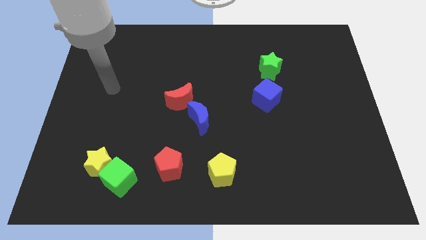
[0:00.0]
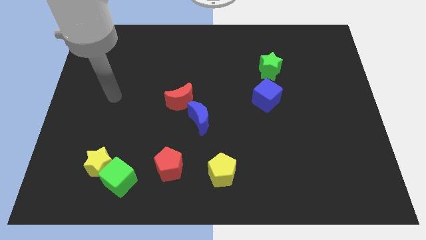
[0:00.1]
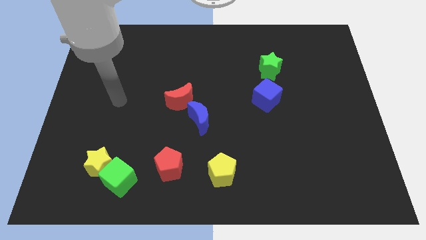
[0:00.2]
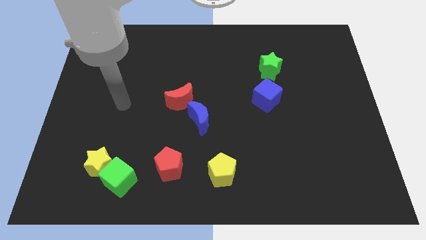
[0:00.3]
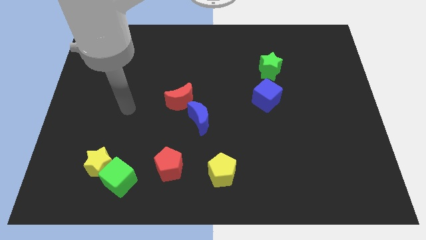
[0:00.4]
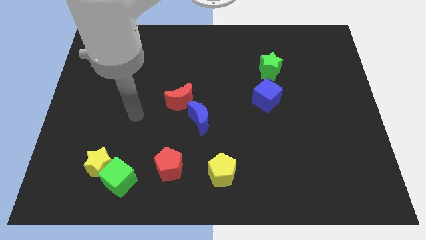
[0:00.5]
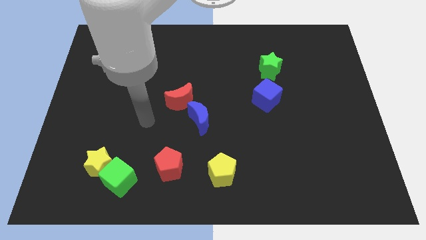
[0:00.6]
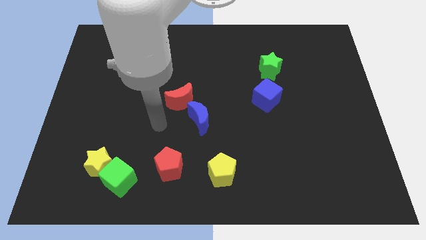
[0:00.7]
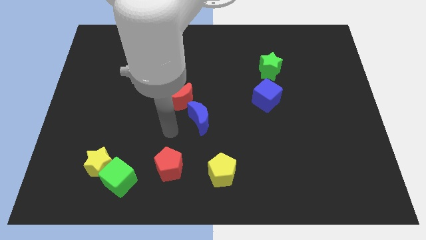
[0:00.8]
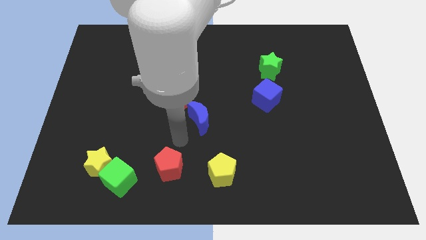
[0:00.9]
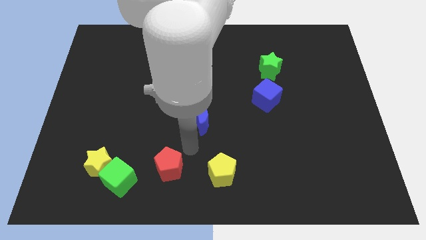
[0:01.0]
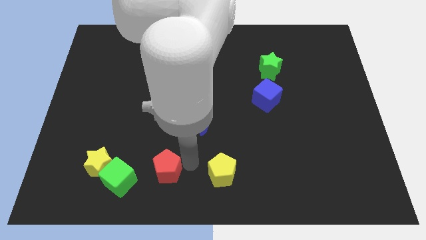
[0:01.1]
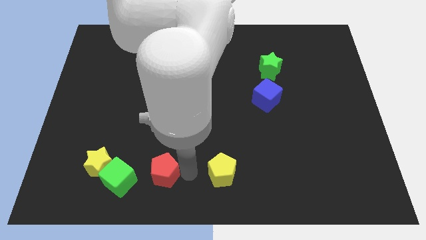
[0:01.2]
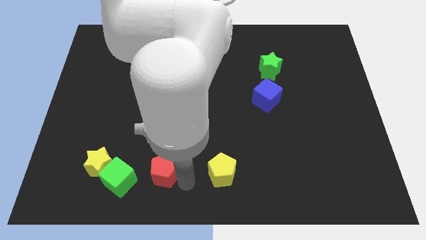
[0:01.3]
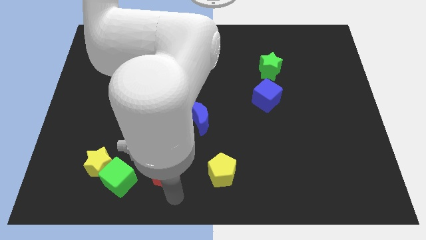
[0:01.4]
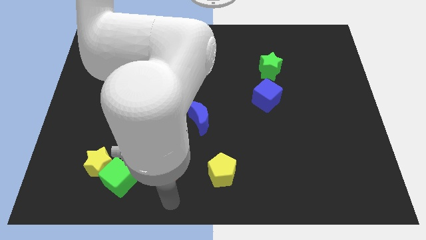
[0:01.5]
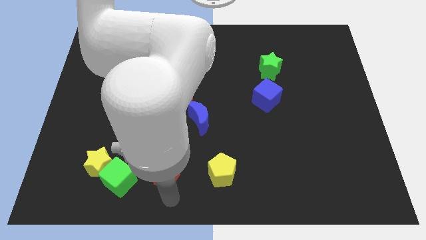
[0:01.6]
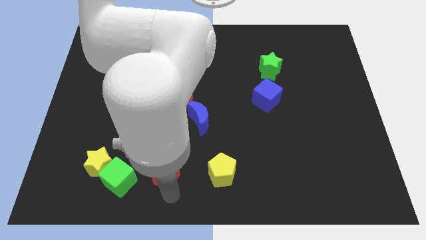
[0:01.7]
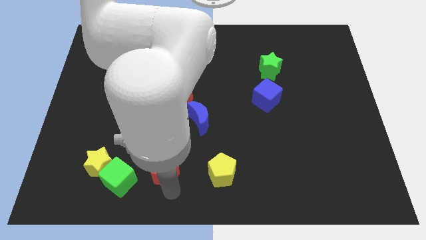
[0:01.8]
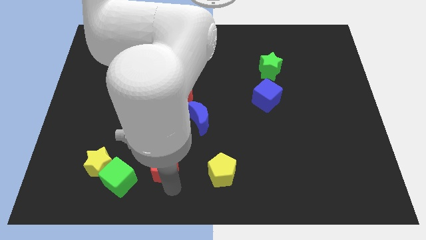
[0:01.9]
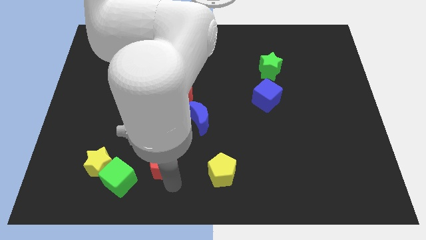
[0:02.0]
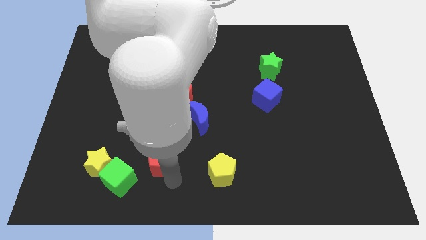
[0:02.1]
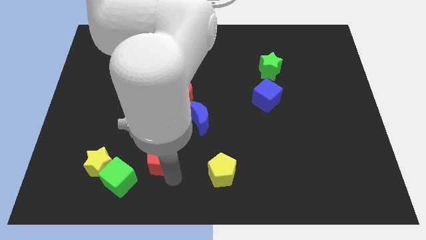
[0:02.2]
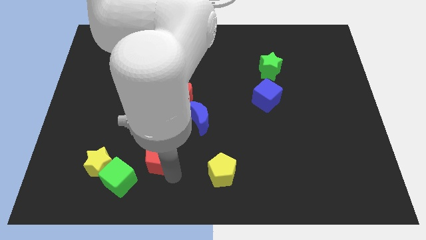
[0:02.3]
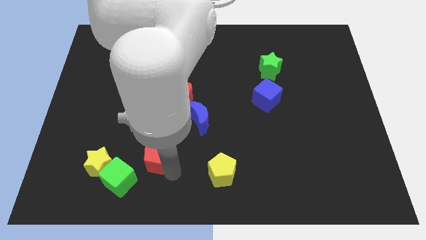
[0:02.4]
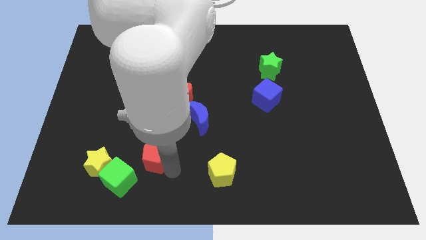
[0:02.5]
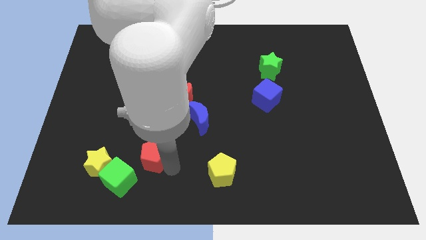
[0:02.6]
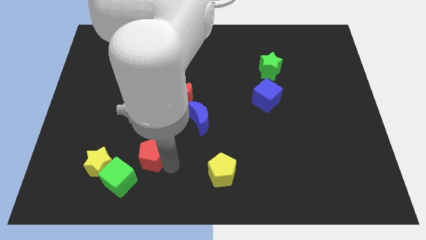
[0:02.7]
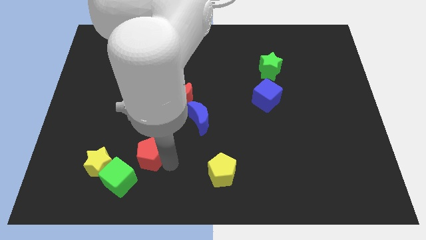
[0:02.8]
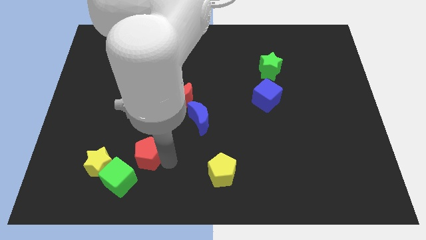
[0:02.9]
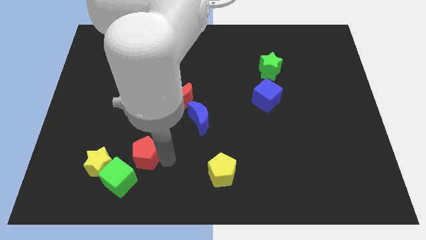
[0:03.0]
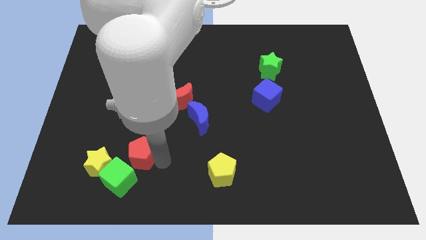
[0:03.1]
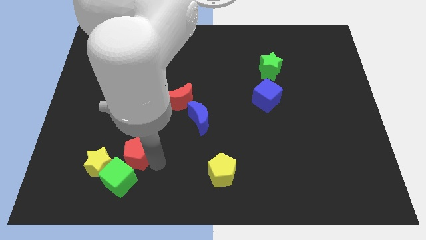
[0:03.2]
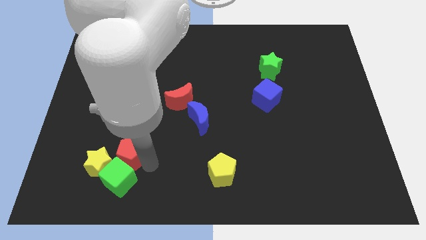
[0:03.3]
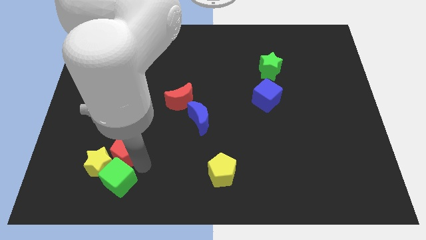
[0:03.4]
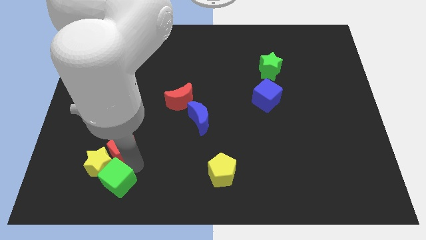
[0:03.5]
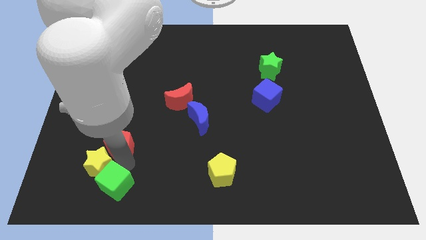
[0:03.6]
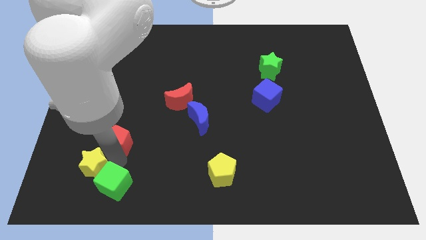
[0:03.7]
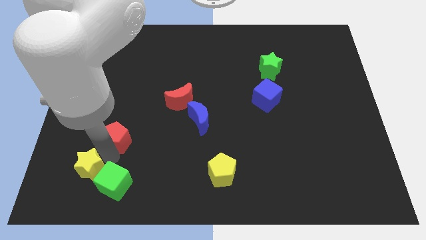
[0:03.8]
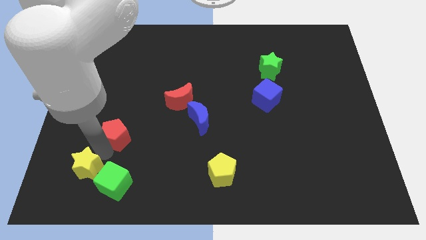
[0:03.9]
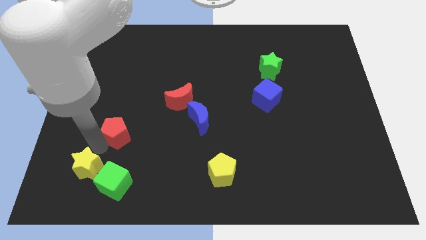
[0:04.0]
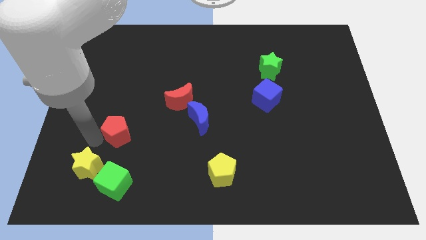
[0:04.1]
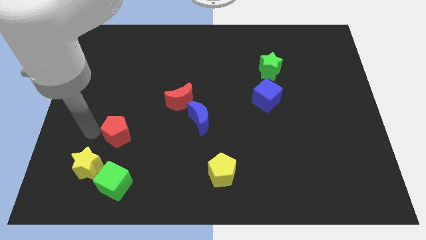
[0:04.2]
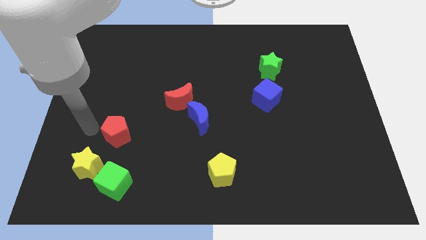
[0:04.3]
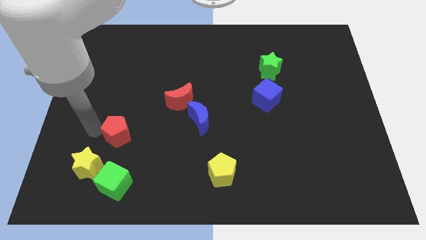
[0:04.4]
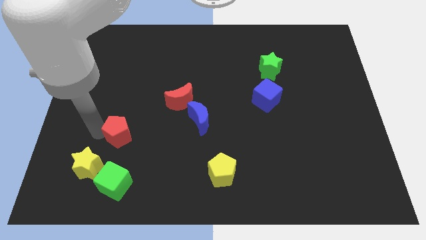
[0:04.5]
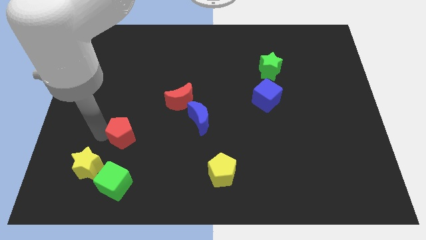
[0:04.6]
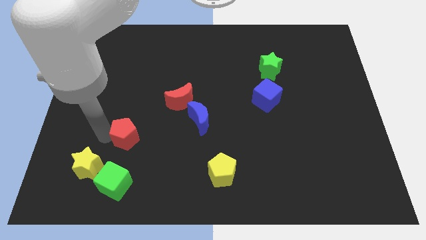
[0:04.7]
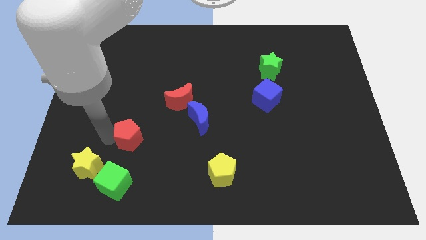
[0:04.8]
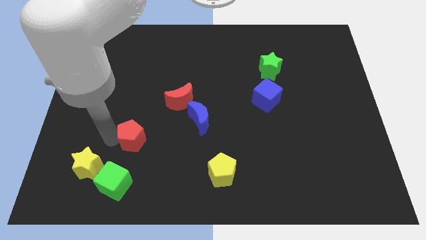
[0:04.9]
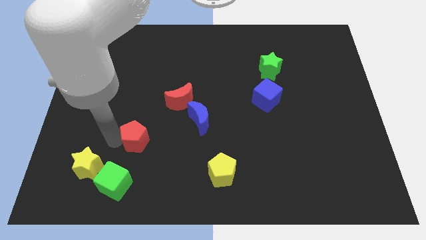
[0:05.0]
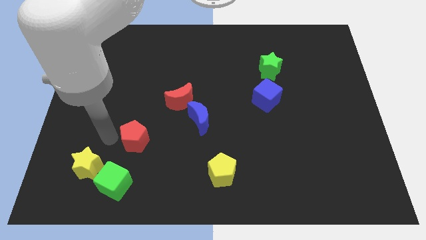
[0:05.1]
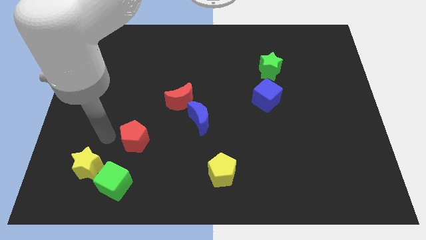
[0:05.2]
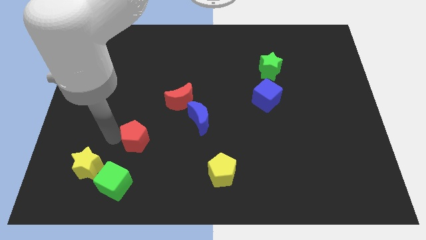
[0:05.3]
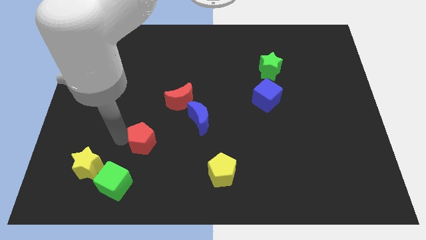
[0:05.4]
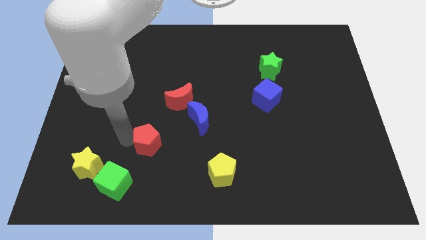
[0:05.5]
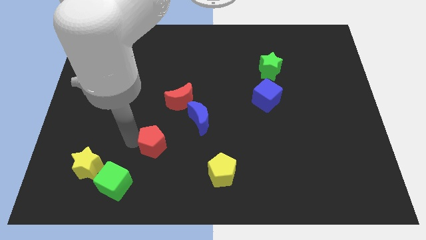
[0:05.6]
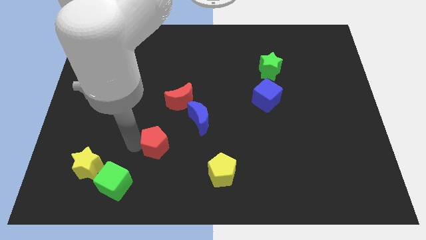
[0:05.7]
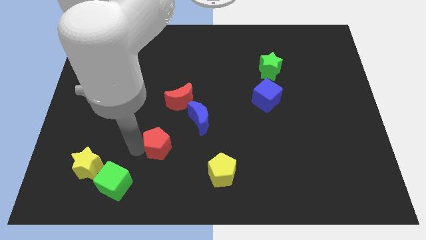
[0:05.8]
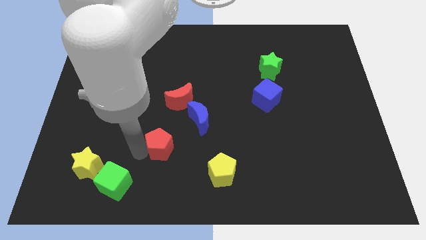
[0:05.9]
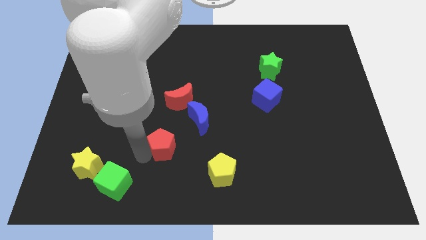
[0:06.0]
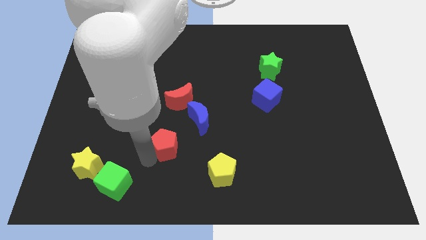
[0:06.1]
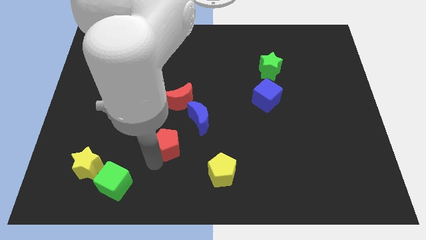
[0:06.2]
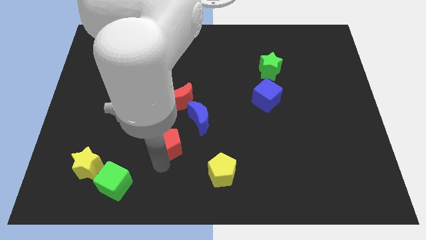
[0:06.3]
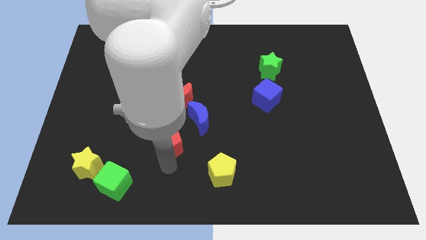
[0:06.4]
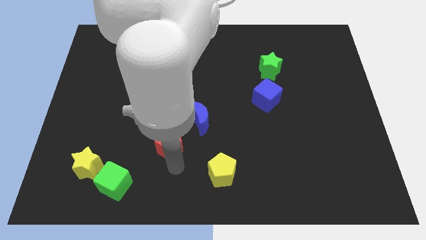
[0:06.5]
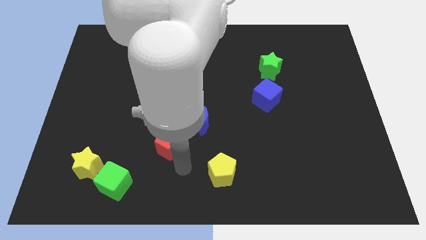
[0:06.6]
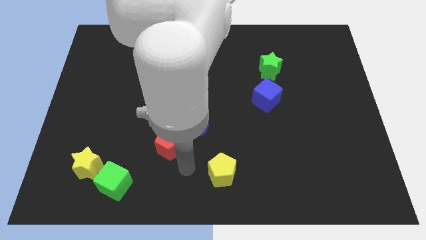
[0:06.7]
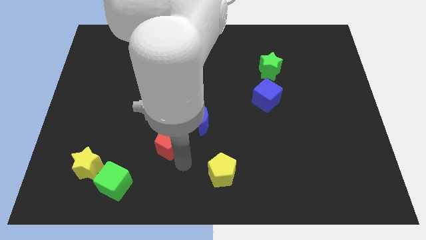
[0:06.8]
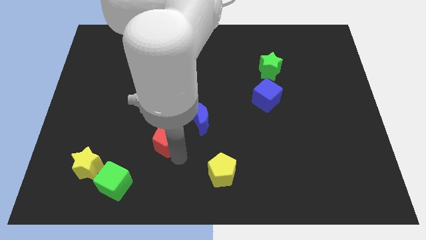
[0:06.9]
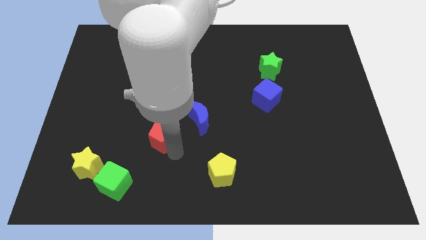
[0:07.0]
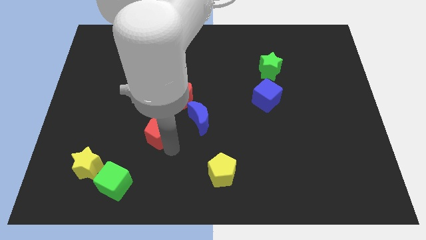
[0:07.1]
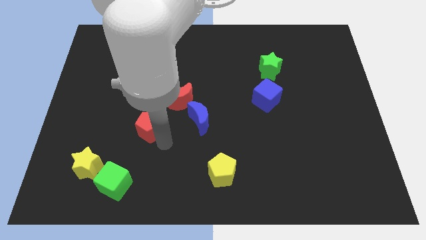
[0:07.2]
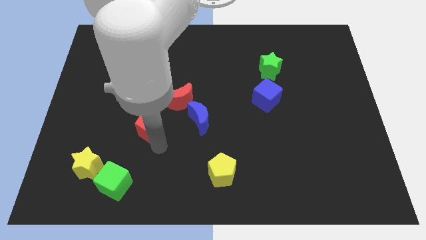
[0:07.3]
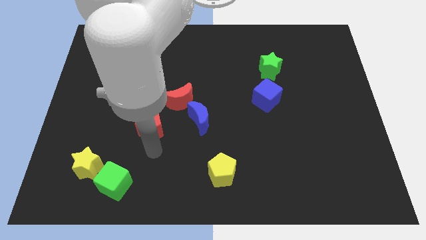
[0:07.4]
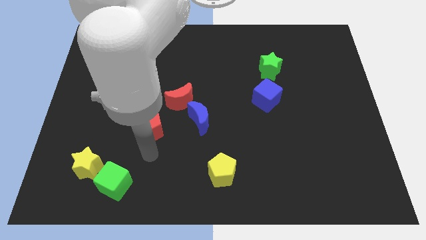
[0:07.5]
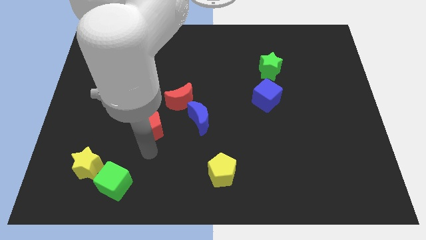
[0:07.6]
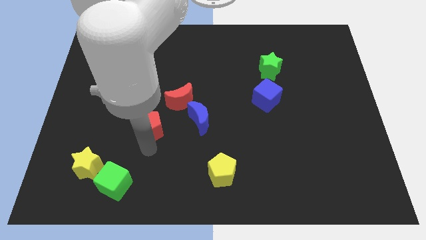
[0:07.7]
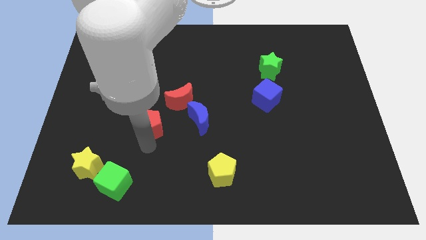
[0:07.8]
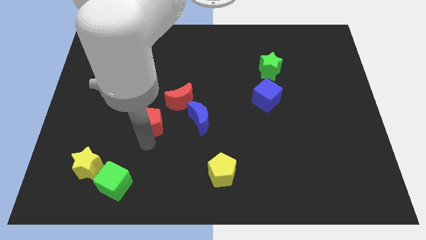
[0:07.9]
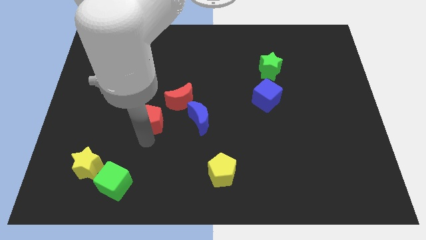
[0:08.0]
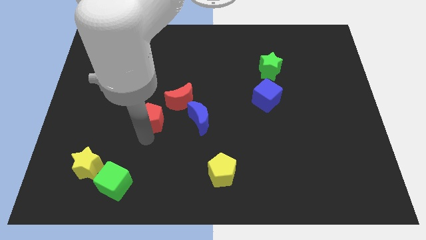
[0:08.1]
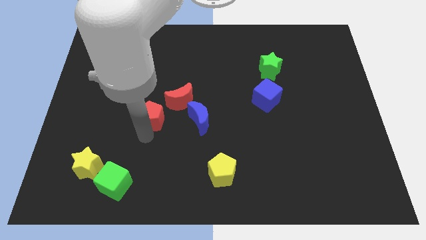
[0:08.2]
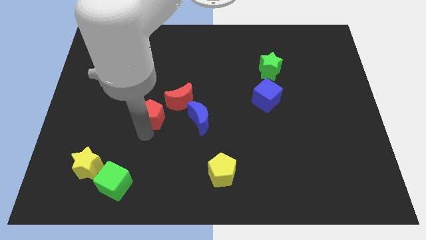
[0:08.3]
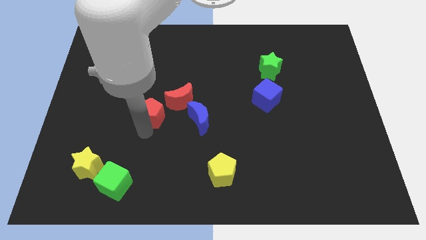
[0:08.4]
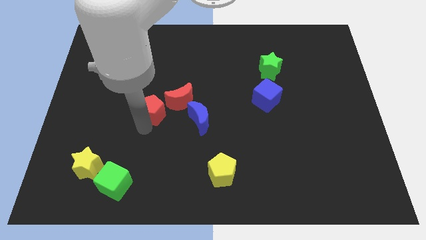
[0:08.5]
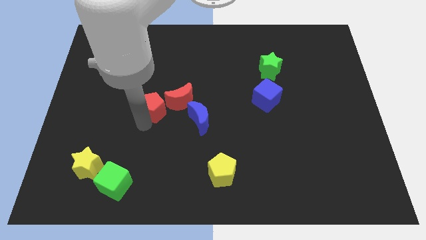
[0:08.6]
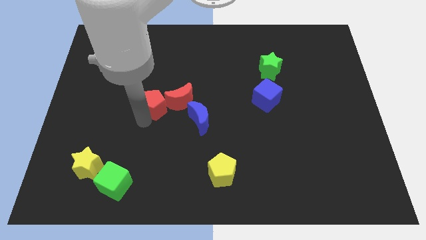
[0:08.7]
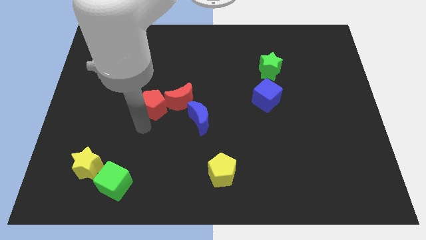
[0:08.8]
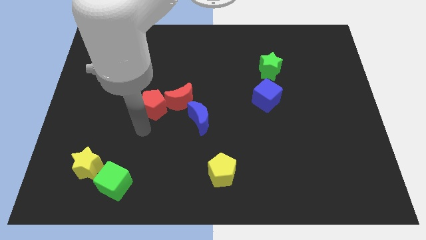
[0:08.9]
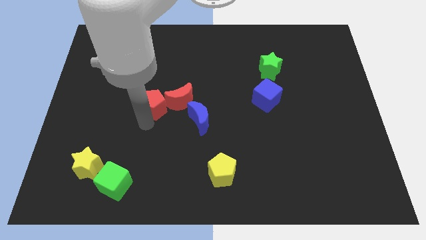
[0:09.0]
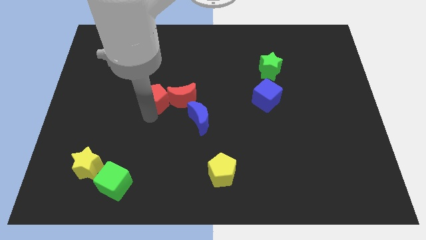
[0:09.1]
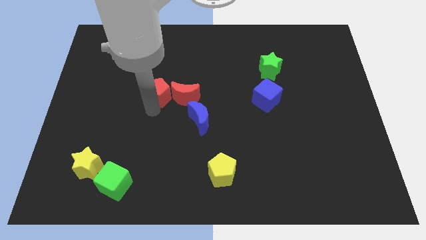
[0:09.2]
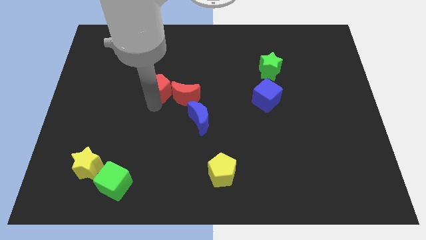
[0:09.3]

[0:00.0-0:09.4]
move the red pentagon upwards
